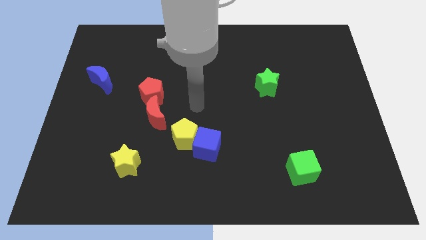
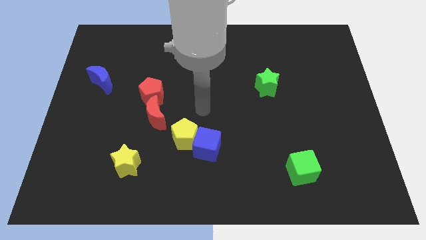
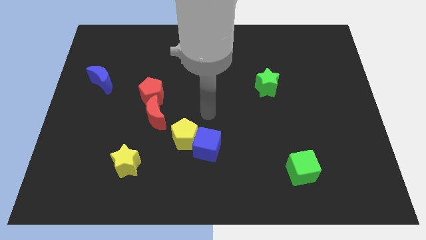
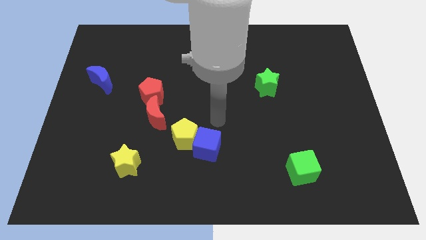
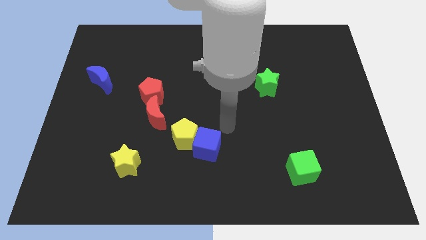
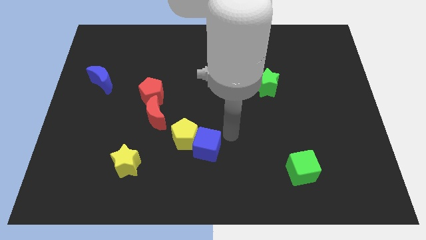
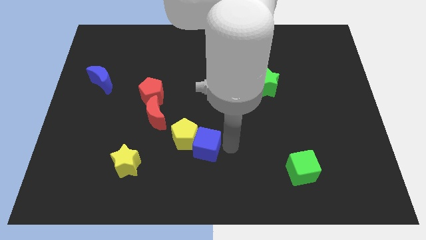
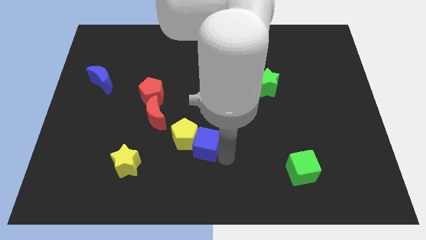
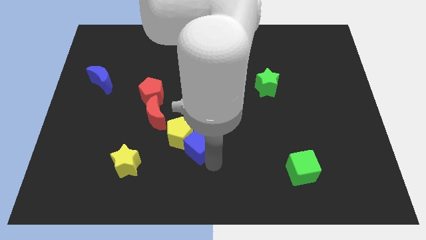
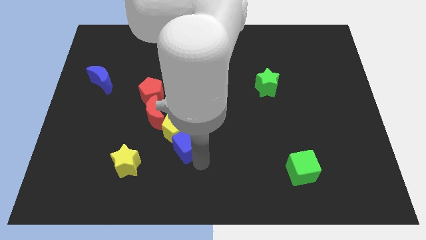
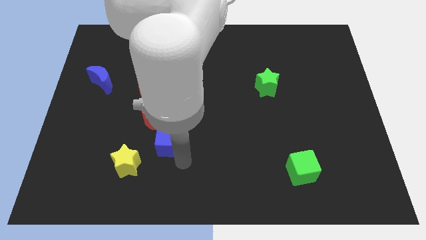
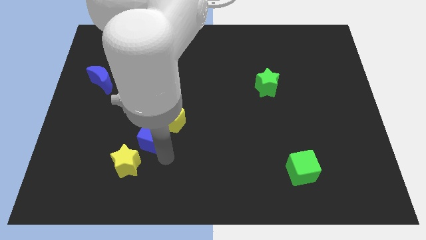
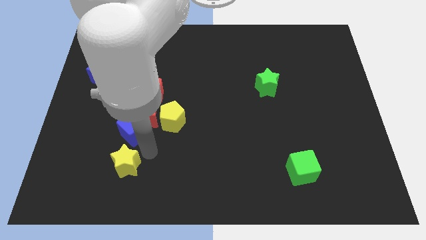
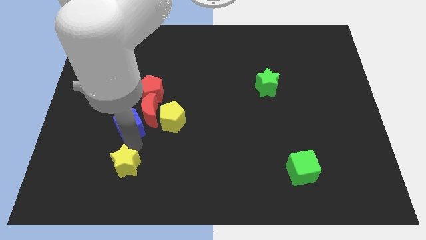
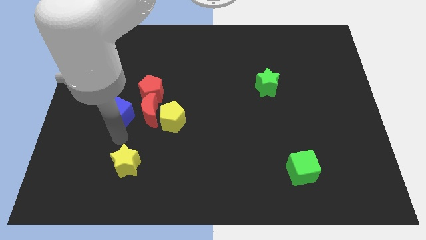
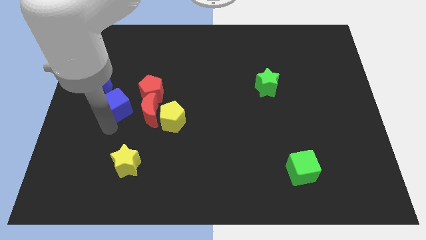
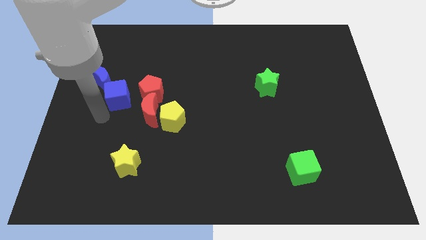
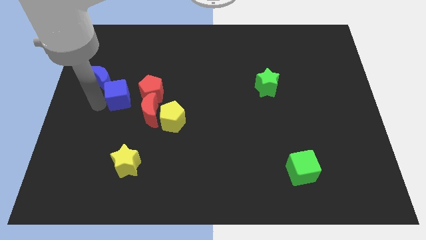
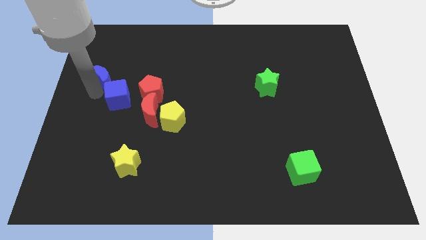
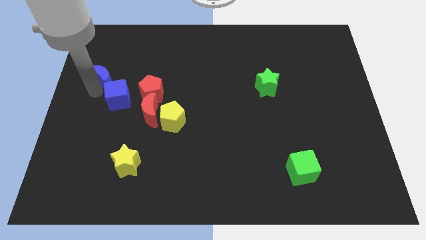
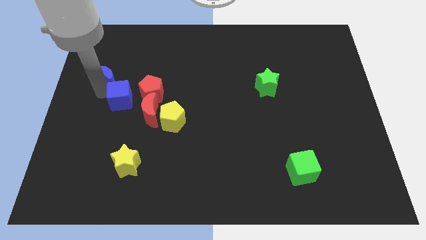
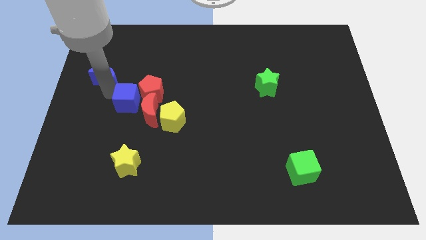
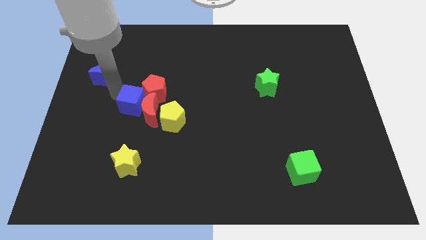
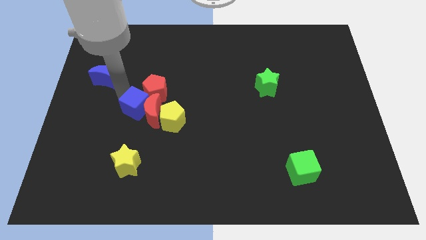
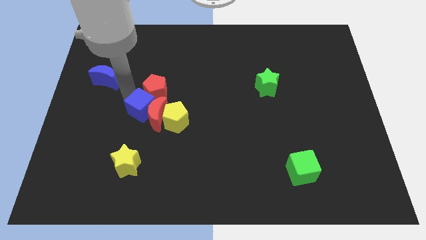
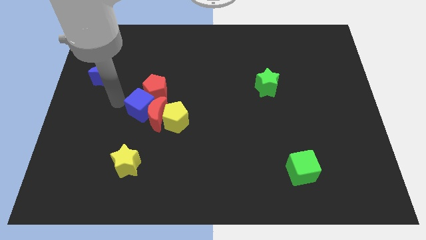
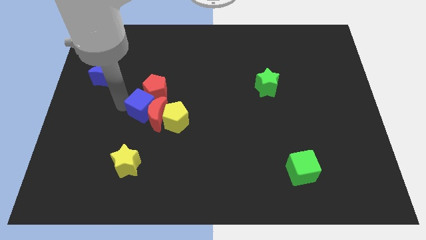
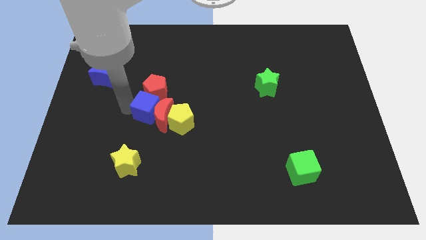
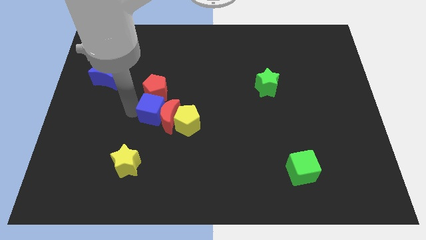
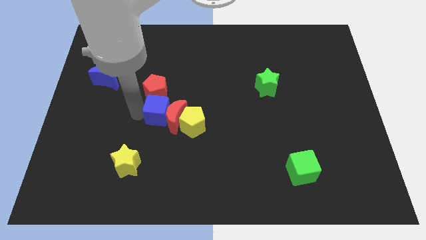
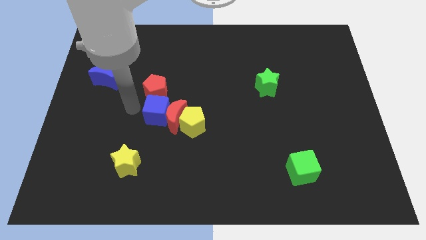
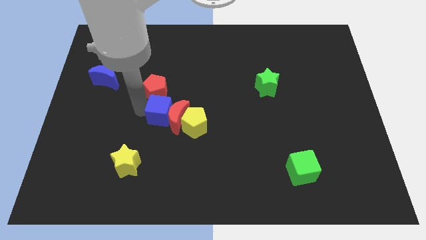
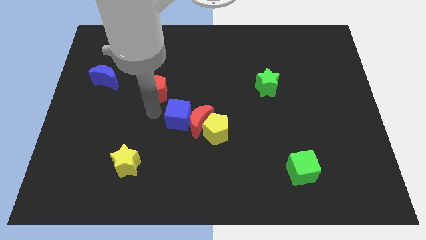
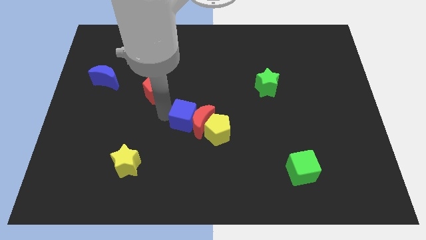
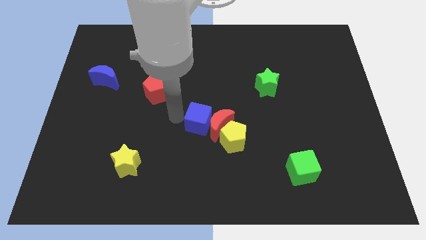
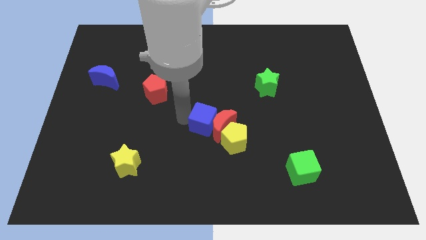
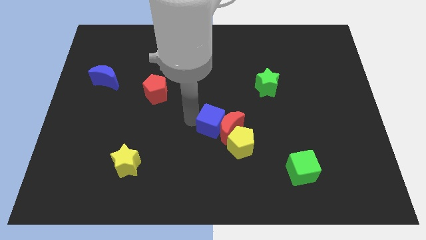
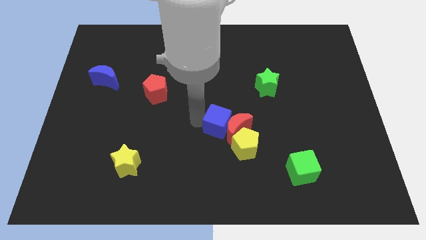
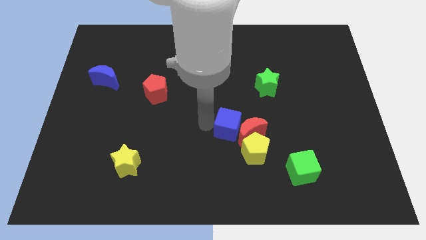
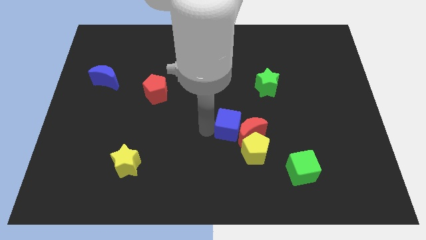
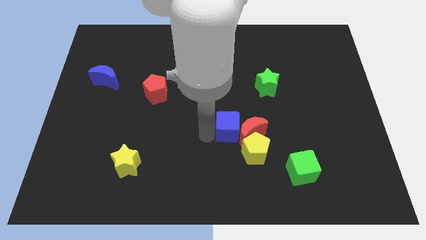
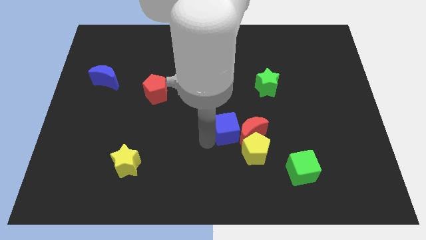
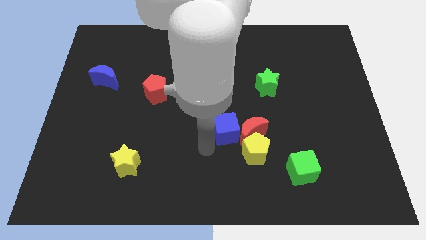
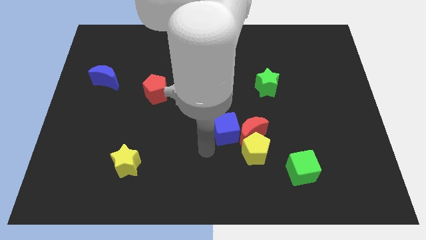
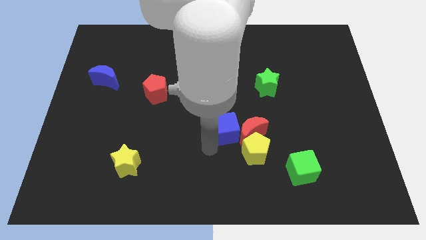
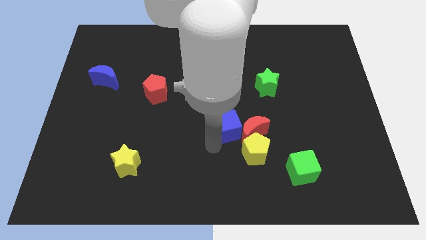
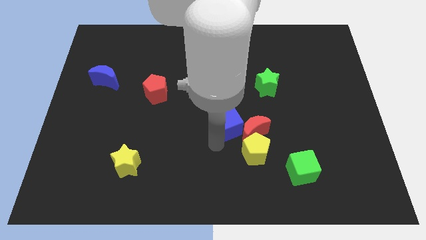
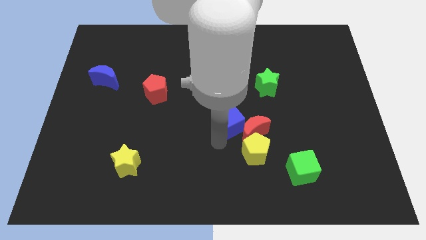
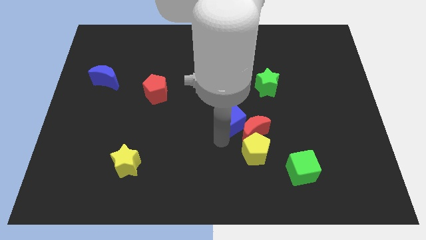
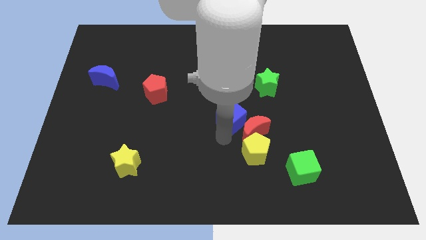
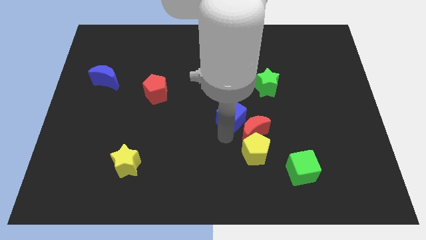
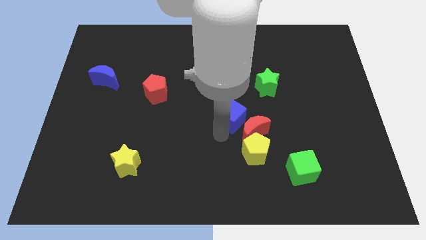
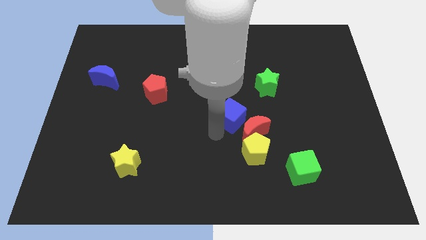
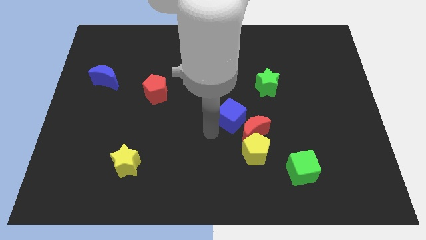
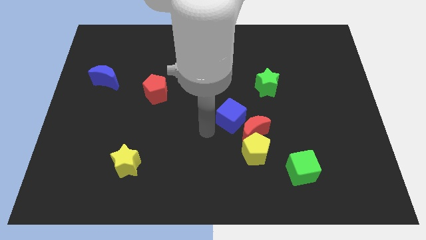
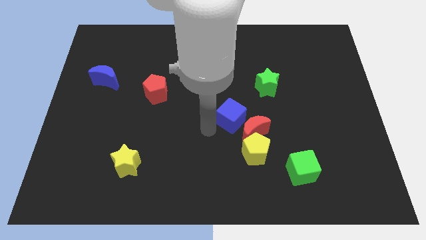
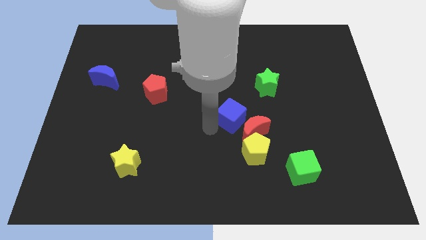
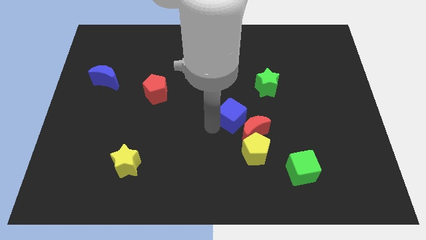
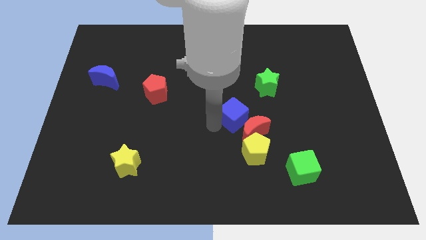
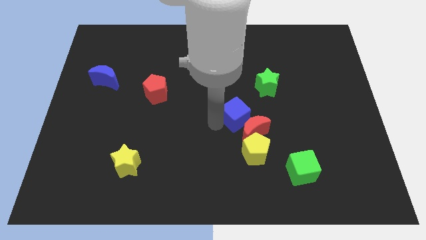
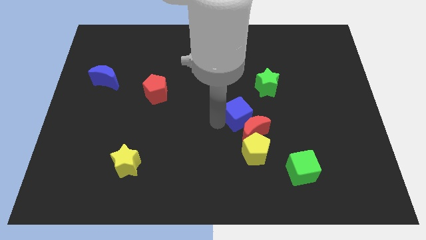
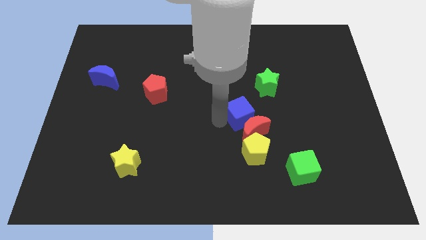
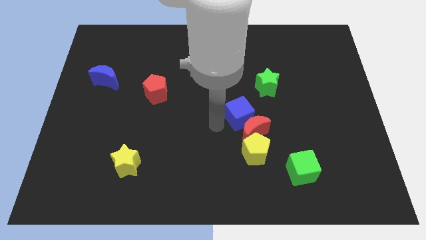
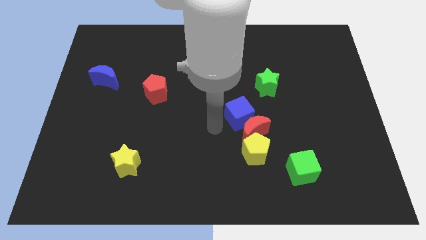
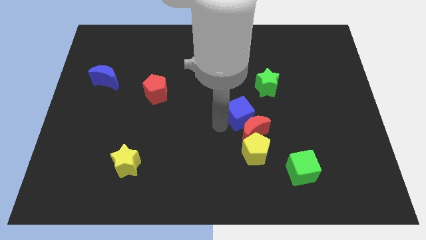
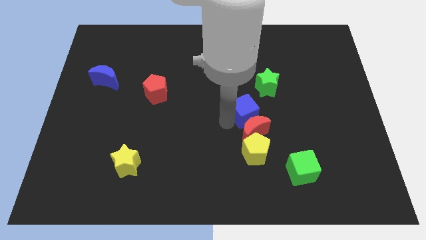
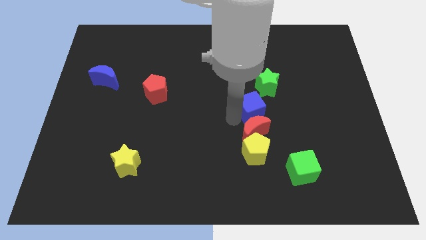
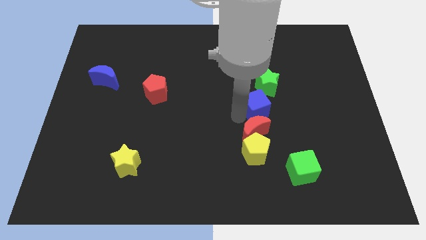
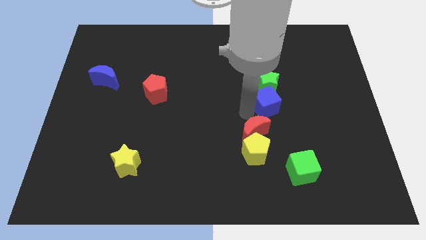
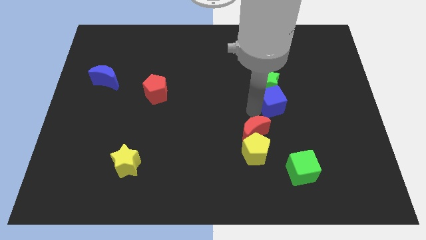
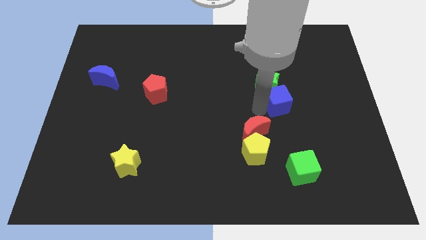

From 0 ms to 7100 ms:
slide the blue cube up and then to the right

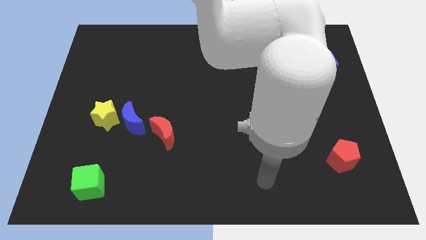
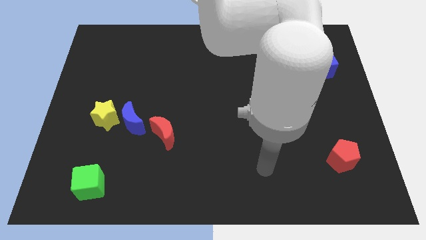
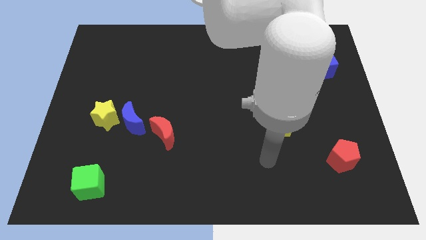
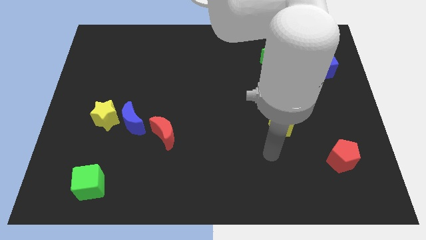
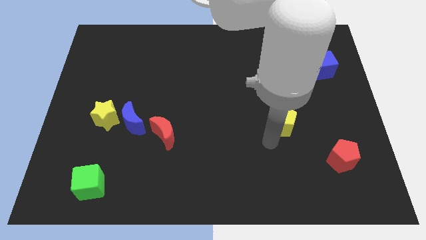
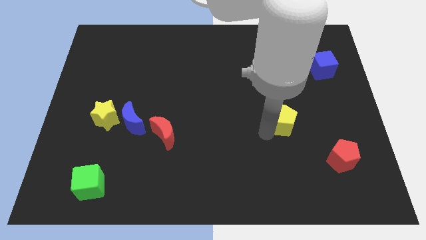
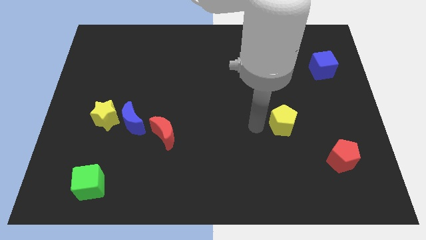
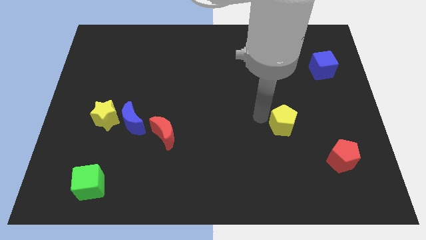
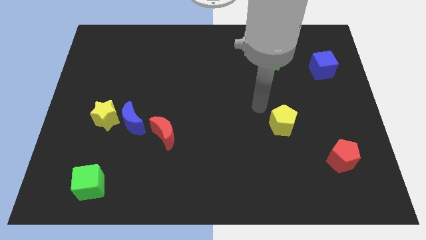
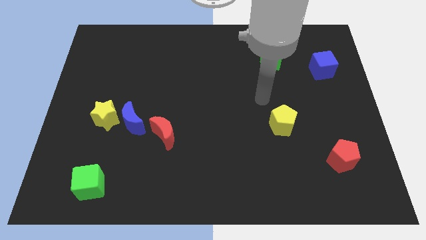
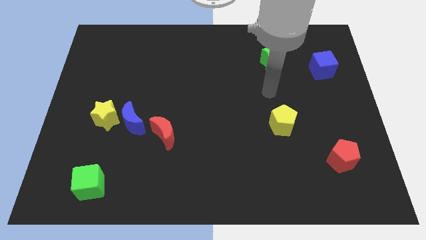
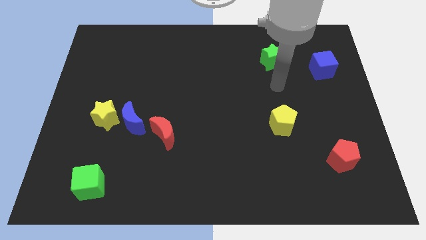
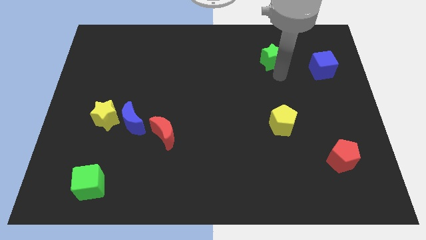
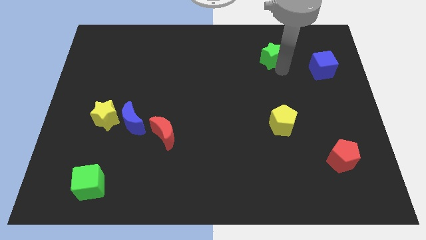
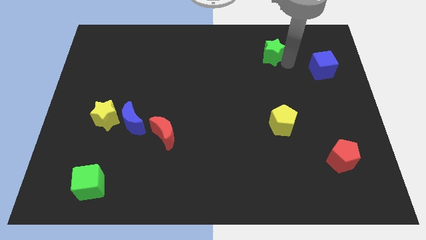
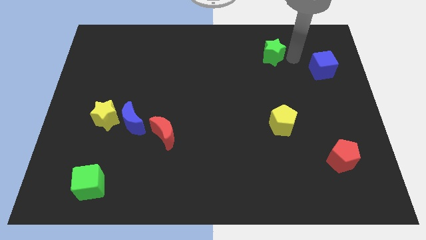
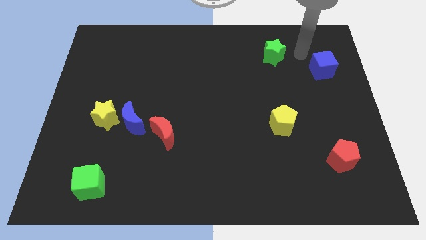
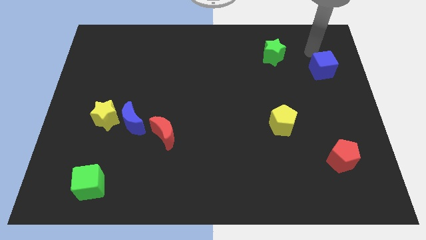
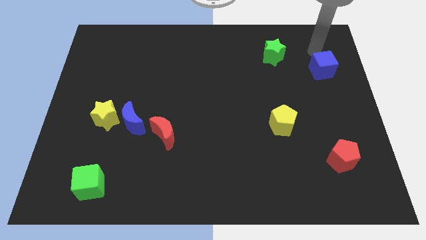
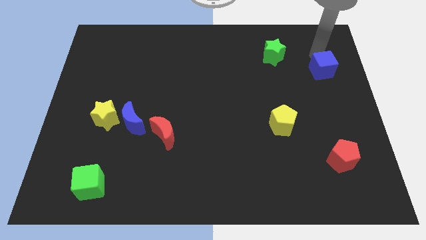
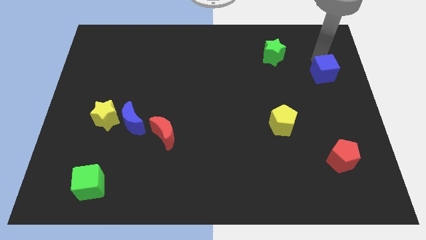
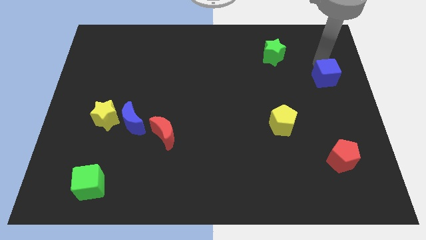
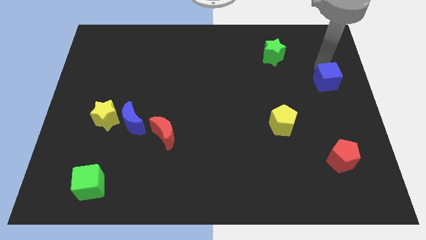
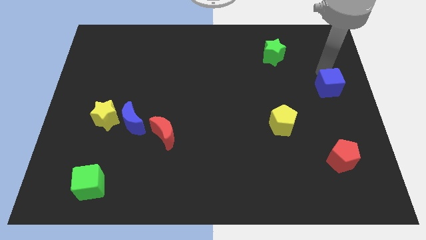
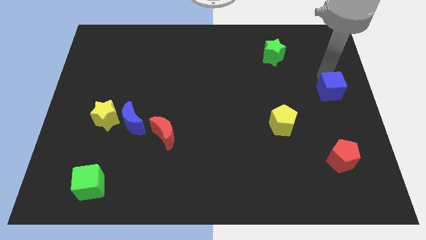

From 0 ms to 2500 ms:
slide the blue cube somewhat down
